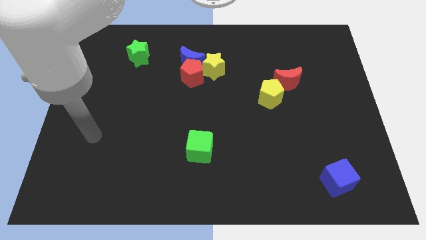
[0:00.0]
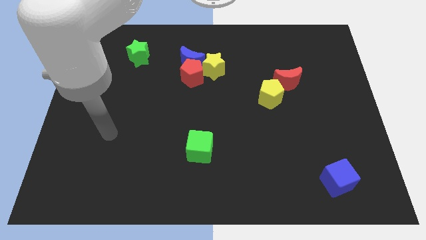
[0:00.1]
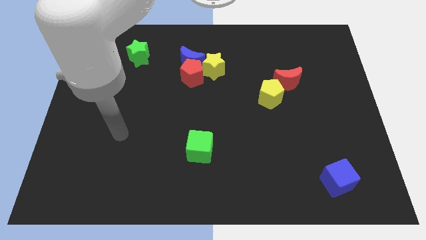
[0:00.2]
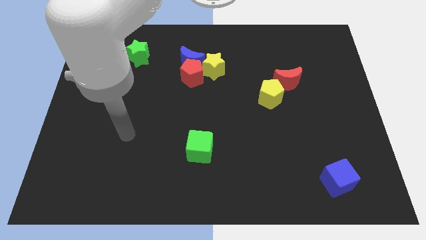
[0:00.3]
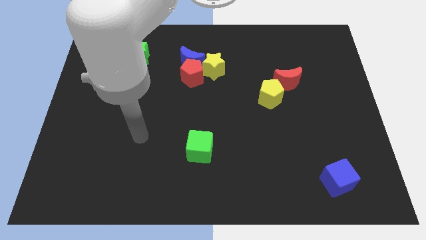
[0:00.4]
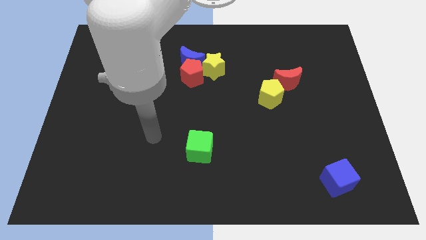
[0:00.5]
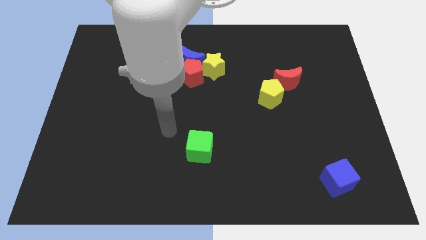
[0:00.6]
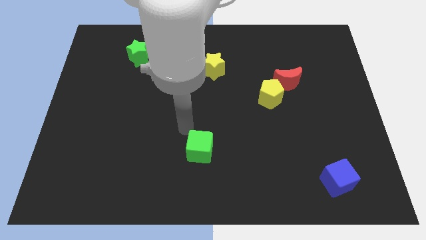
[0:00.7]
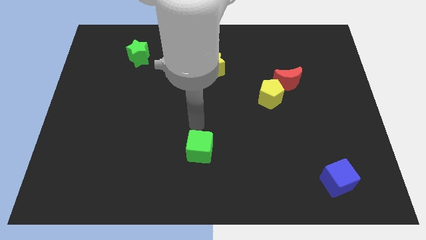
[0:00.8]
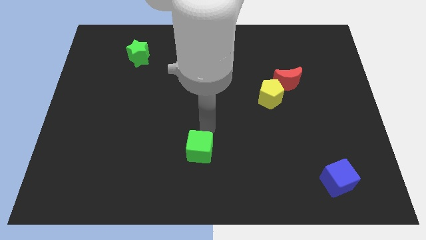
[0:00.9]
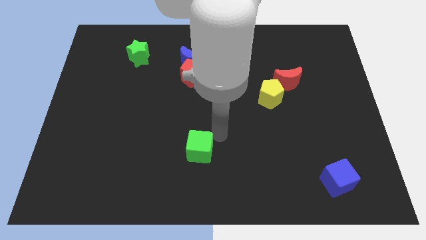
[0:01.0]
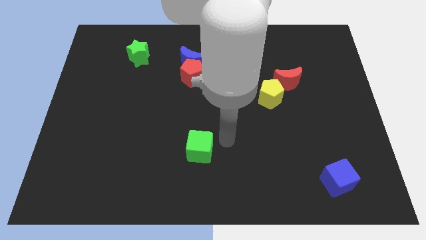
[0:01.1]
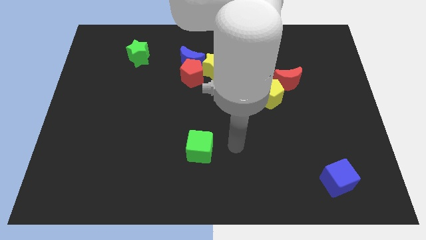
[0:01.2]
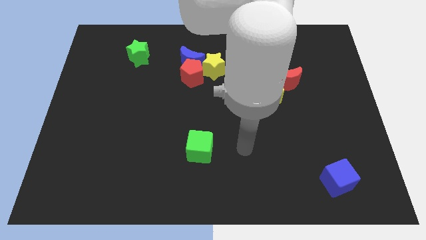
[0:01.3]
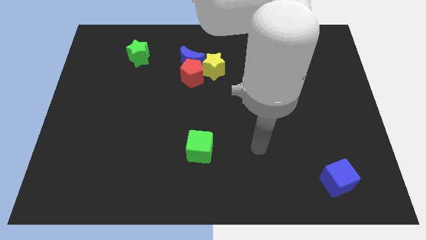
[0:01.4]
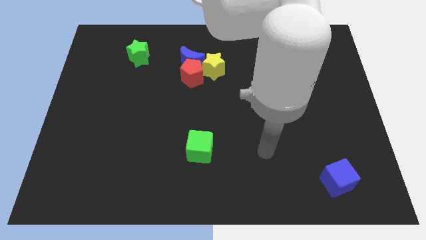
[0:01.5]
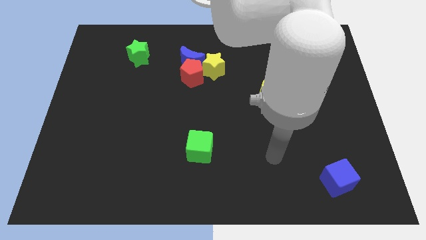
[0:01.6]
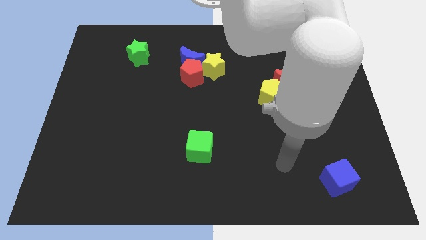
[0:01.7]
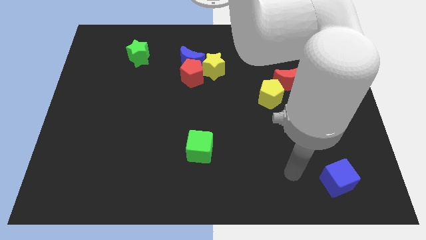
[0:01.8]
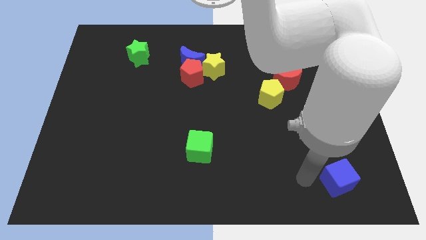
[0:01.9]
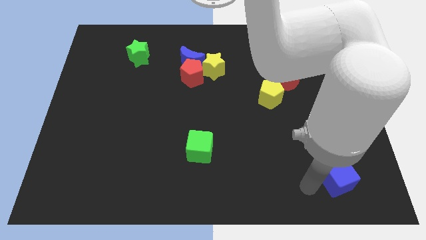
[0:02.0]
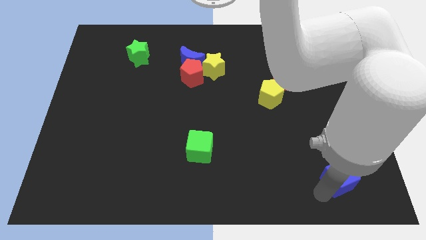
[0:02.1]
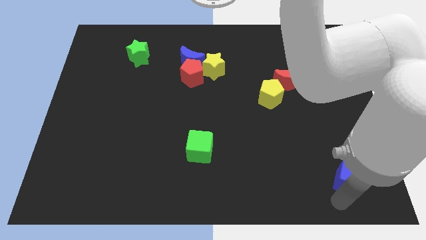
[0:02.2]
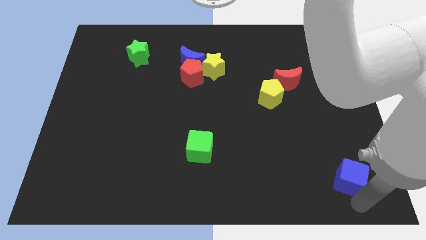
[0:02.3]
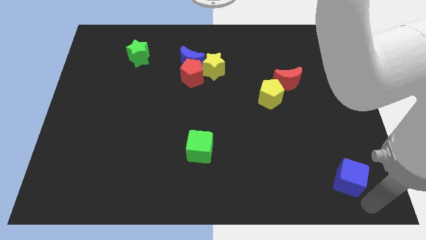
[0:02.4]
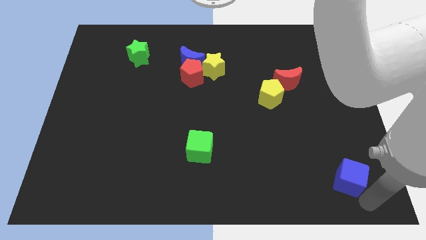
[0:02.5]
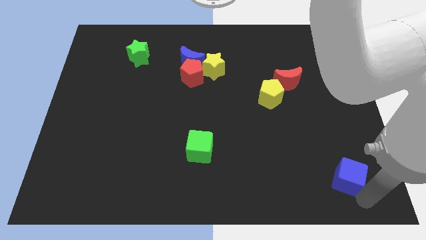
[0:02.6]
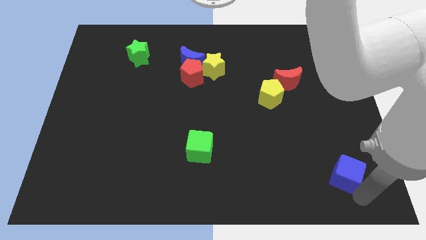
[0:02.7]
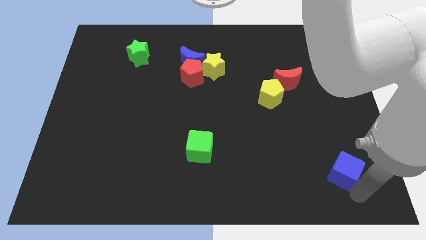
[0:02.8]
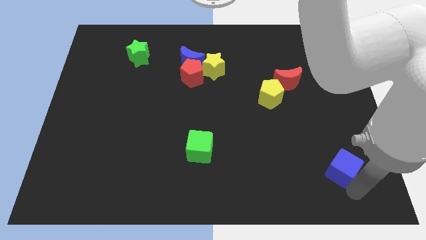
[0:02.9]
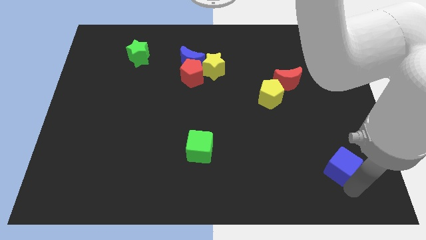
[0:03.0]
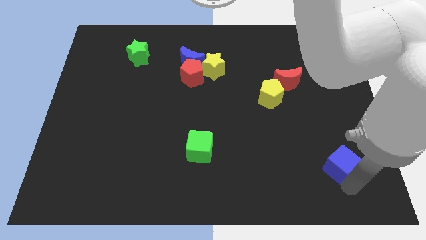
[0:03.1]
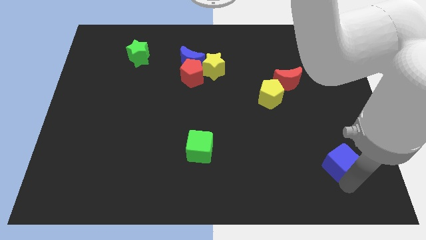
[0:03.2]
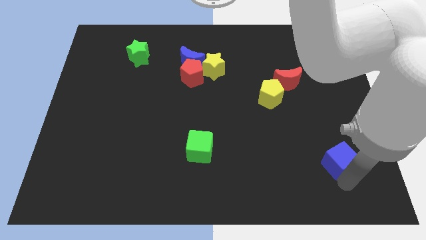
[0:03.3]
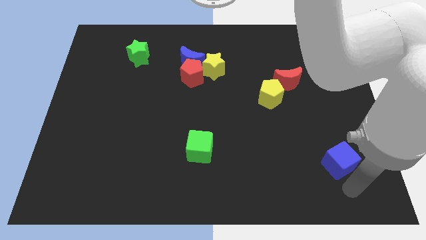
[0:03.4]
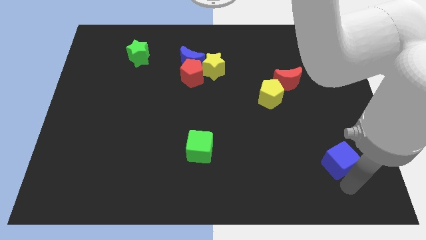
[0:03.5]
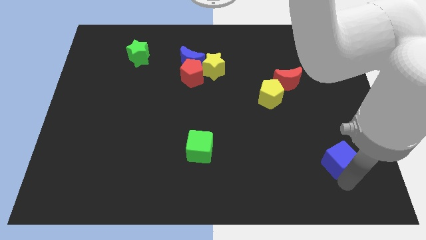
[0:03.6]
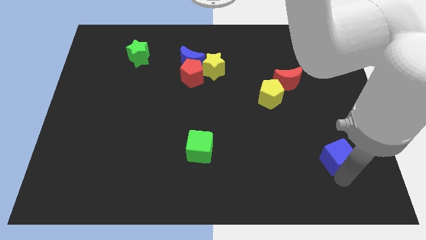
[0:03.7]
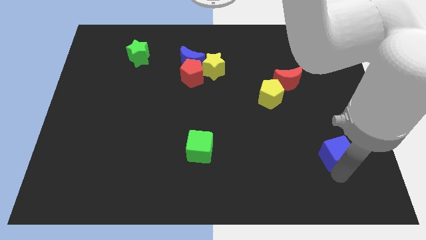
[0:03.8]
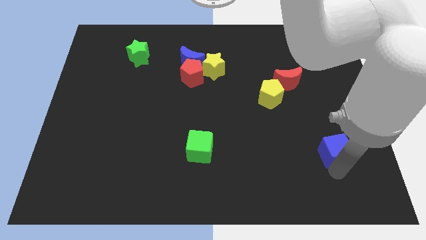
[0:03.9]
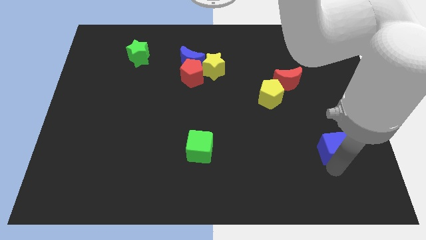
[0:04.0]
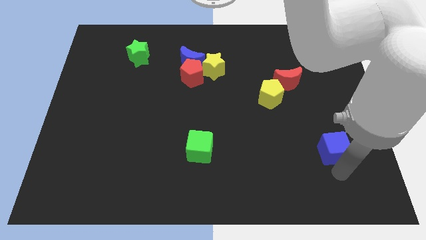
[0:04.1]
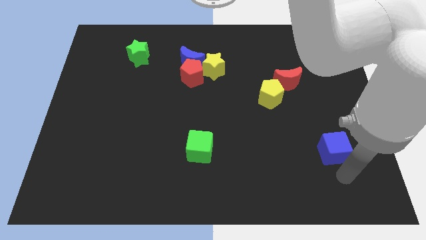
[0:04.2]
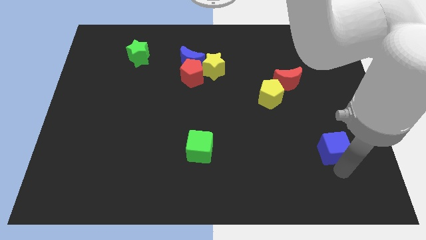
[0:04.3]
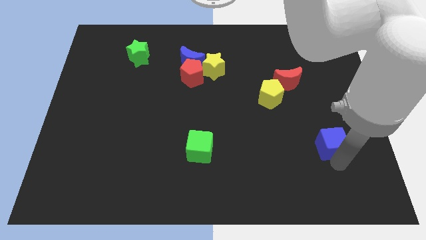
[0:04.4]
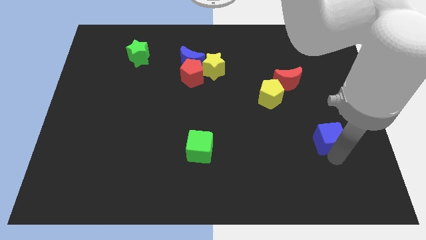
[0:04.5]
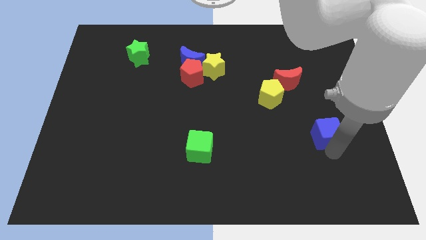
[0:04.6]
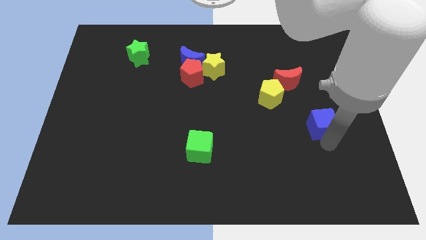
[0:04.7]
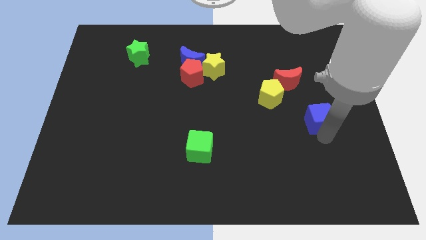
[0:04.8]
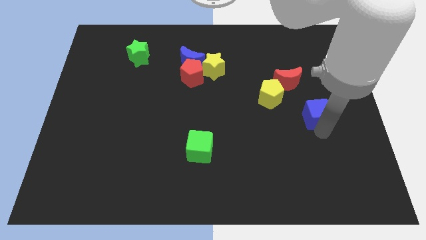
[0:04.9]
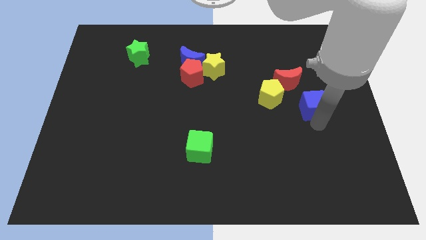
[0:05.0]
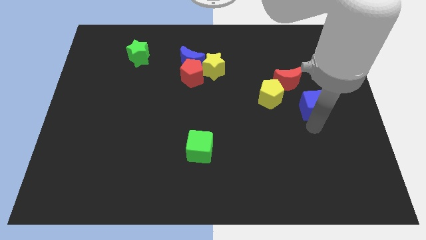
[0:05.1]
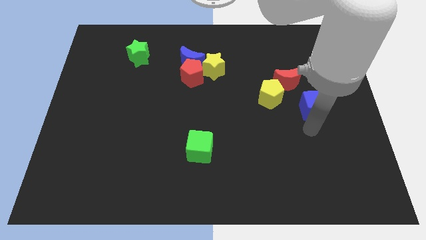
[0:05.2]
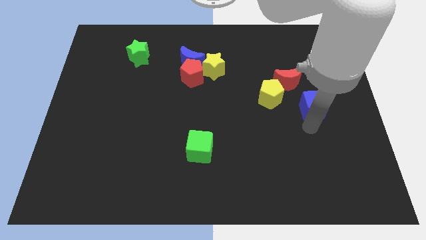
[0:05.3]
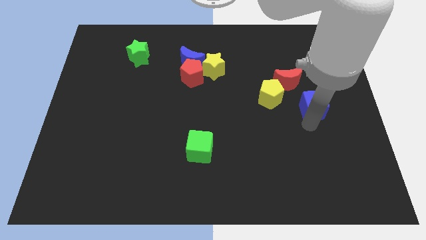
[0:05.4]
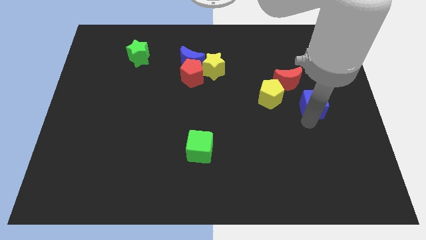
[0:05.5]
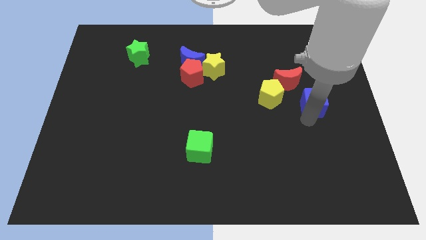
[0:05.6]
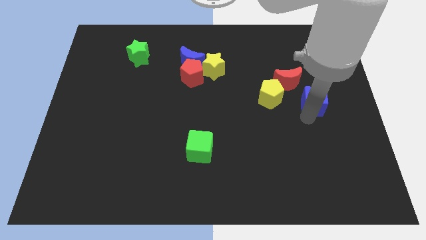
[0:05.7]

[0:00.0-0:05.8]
move the blue cube upwards

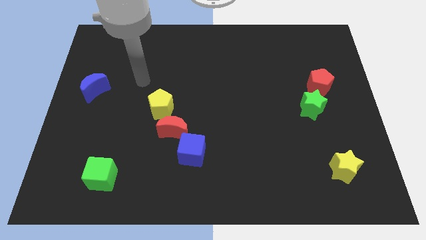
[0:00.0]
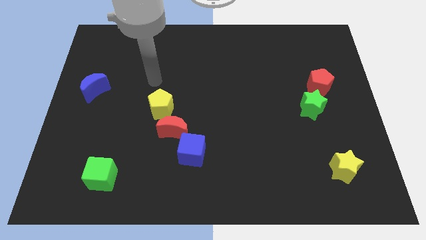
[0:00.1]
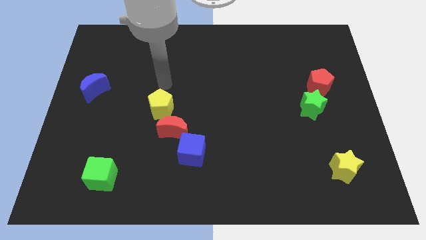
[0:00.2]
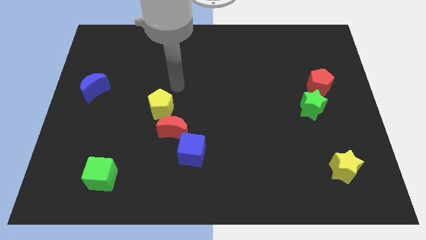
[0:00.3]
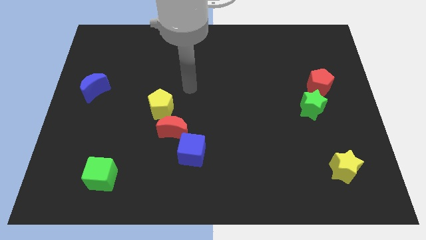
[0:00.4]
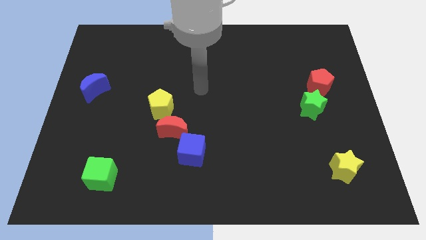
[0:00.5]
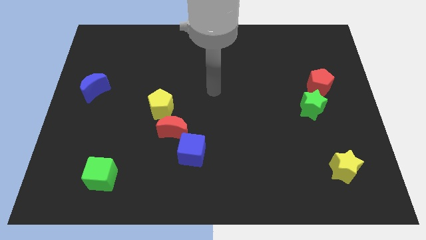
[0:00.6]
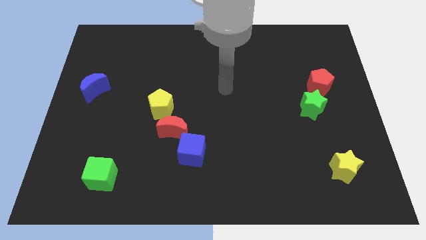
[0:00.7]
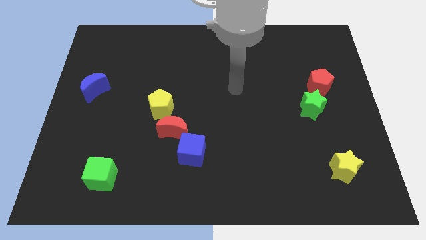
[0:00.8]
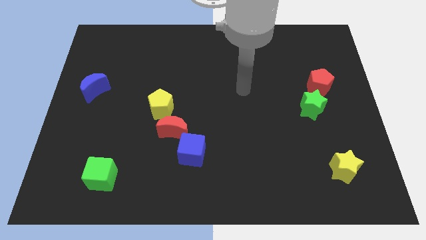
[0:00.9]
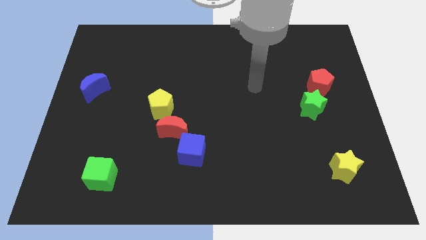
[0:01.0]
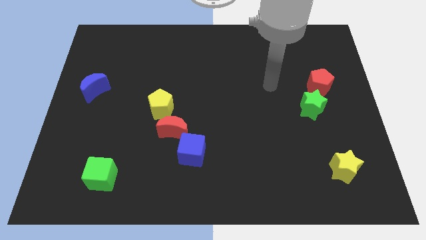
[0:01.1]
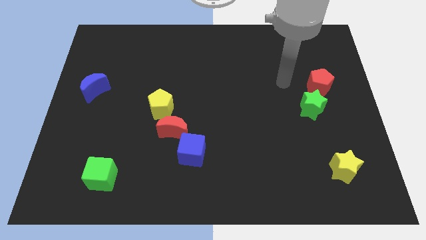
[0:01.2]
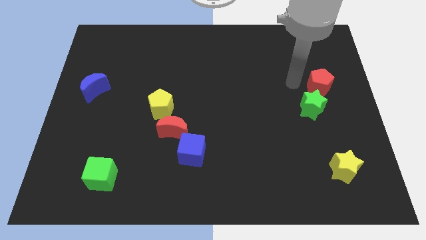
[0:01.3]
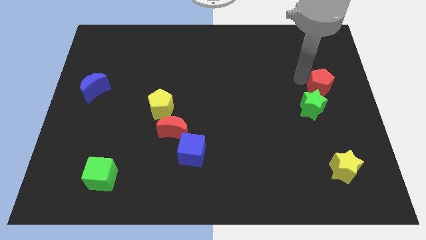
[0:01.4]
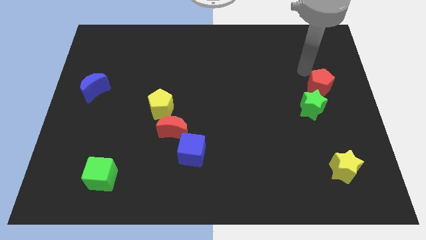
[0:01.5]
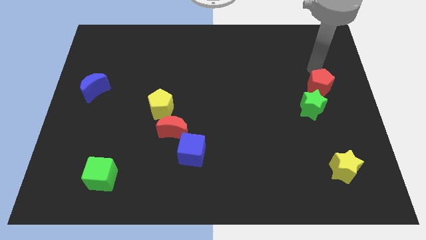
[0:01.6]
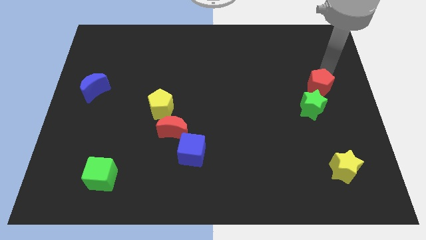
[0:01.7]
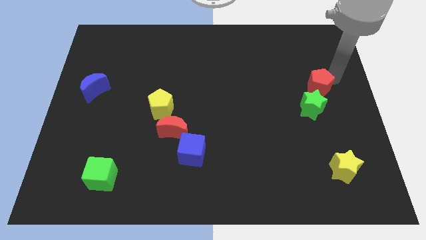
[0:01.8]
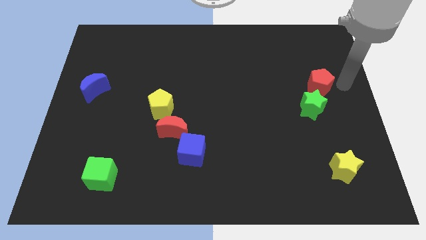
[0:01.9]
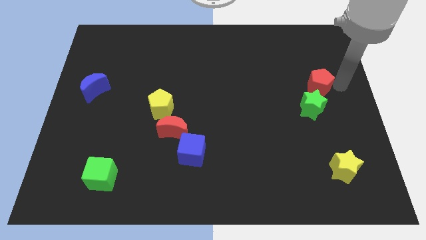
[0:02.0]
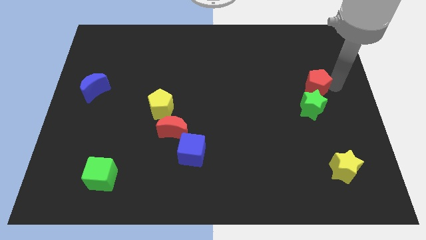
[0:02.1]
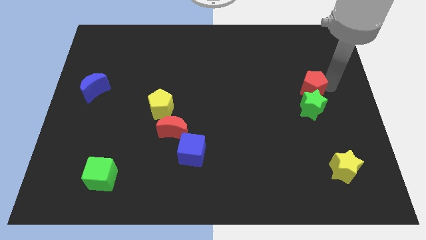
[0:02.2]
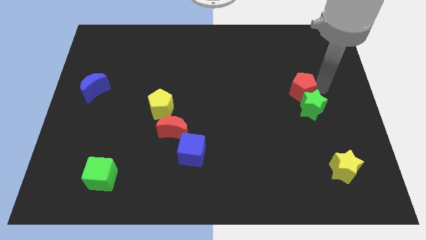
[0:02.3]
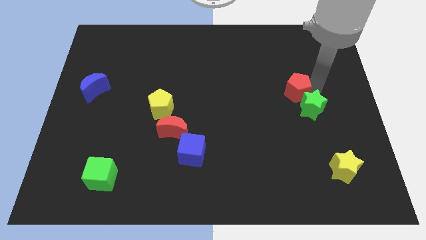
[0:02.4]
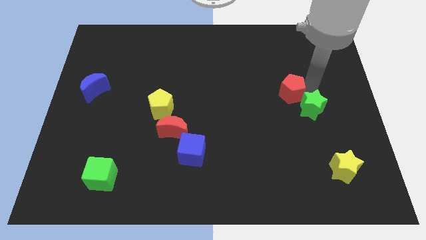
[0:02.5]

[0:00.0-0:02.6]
push the red pentagon a little left
